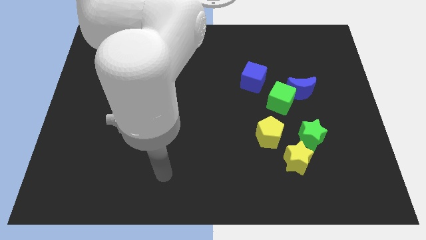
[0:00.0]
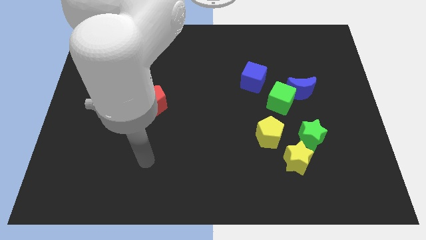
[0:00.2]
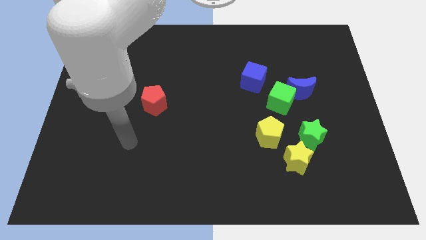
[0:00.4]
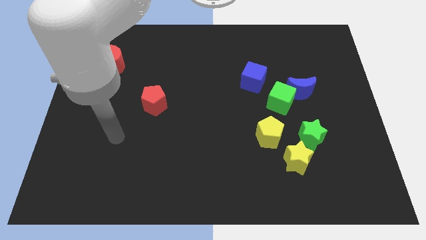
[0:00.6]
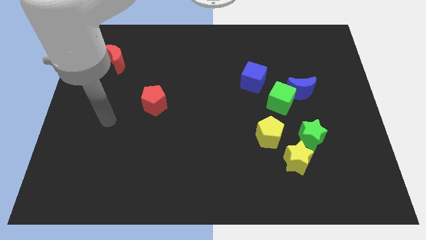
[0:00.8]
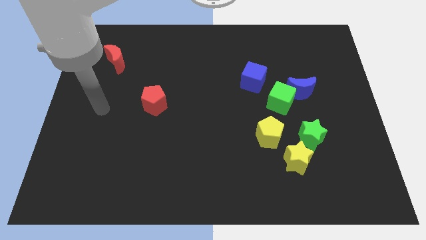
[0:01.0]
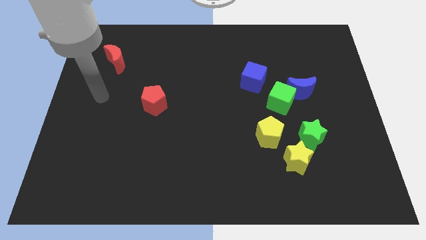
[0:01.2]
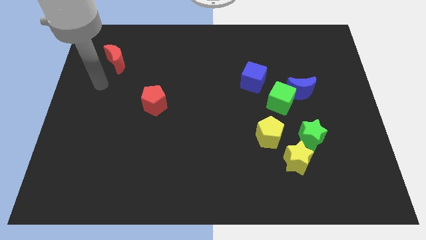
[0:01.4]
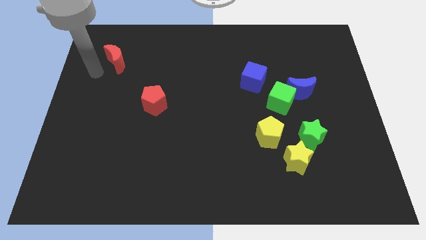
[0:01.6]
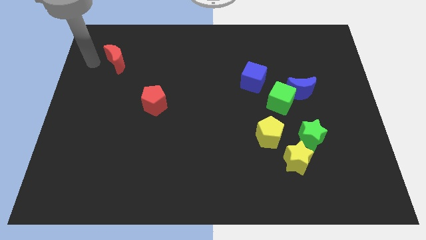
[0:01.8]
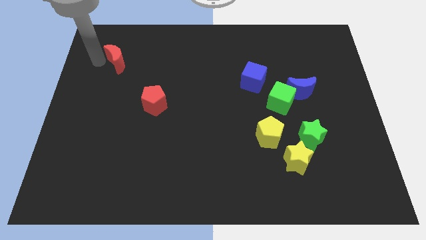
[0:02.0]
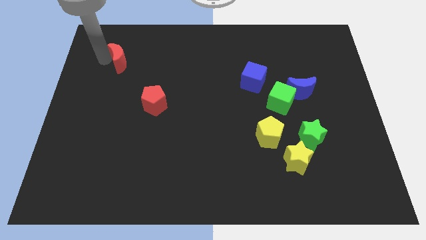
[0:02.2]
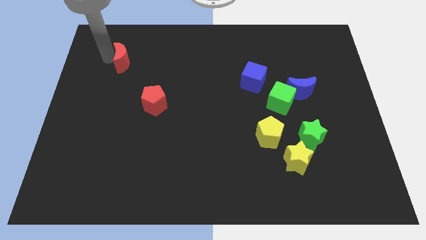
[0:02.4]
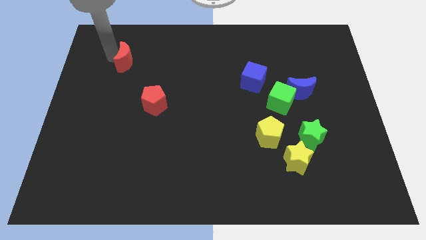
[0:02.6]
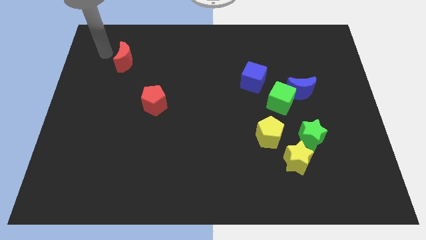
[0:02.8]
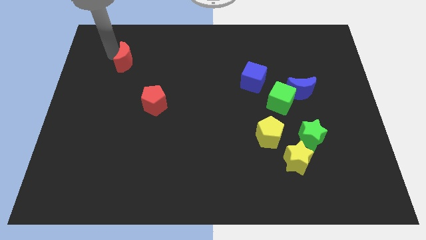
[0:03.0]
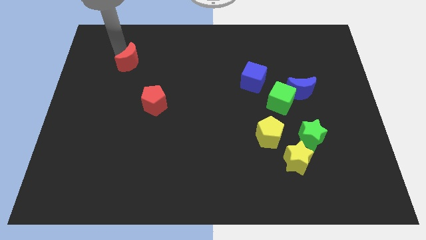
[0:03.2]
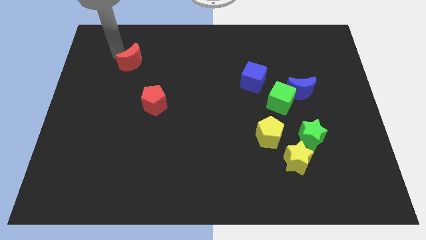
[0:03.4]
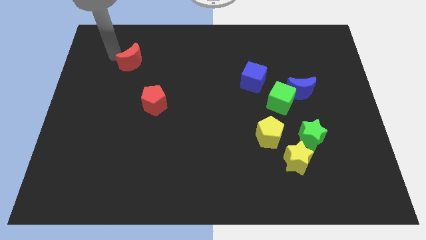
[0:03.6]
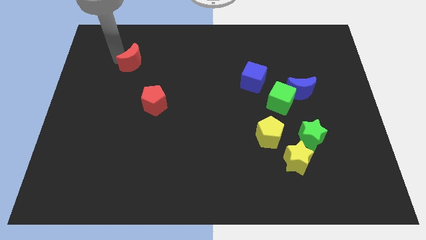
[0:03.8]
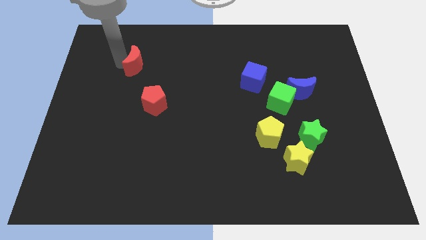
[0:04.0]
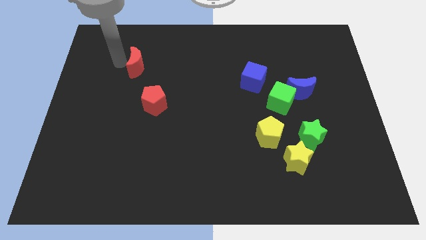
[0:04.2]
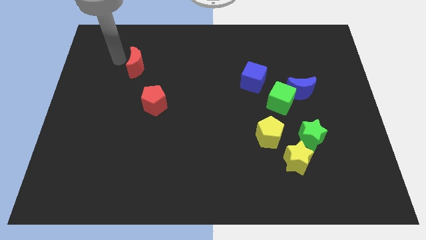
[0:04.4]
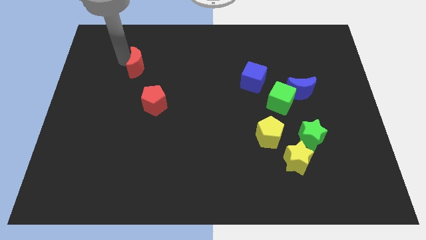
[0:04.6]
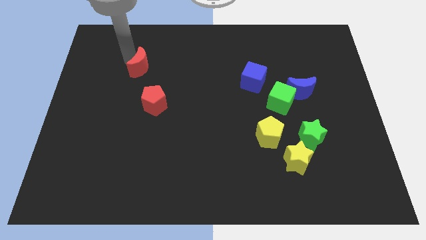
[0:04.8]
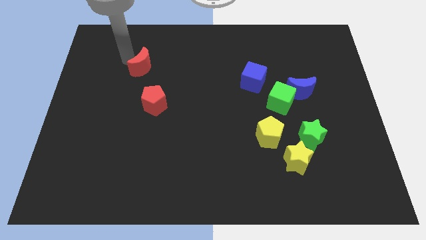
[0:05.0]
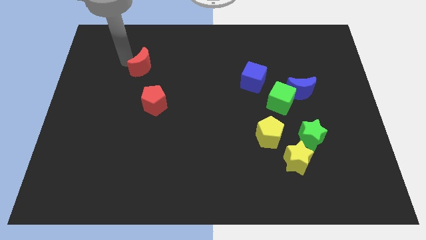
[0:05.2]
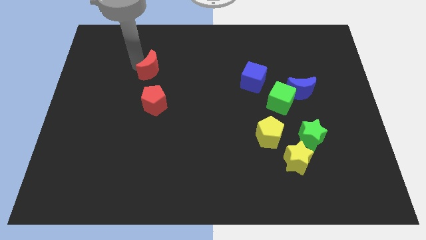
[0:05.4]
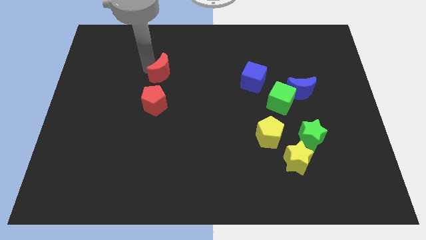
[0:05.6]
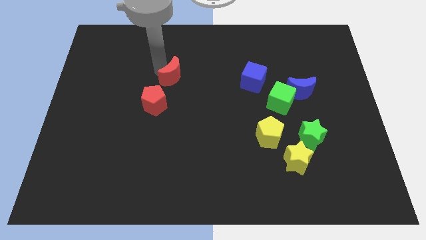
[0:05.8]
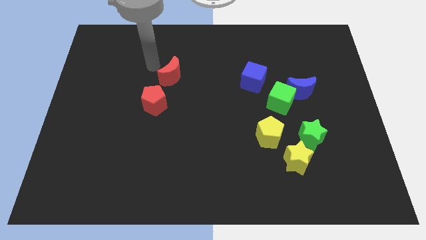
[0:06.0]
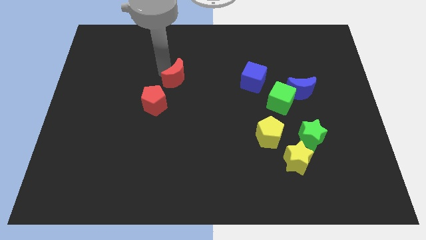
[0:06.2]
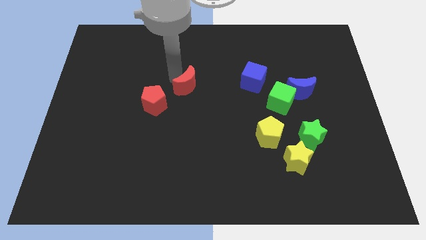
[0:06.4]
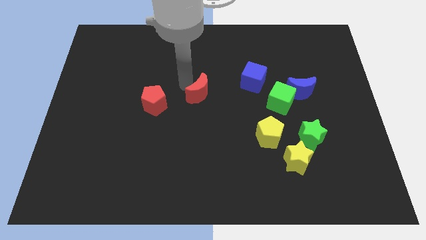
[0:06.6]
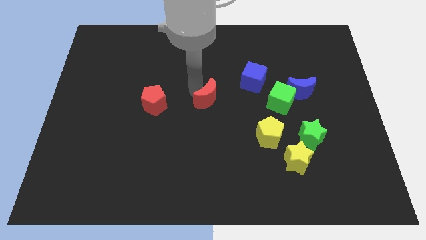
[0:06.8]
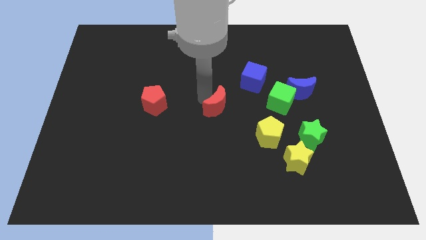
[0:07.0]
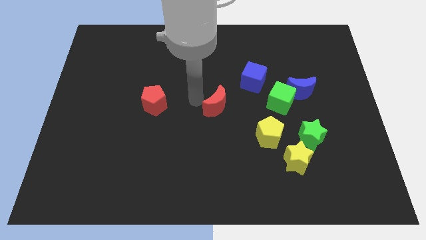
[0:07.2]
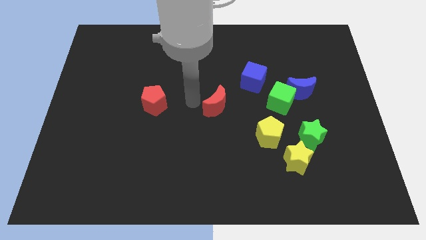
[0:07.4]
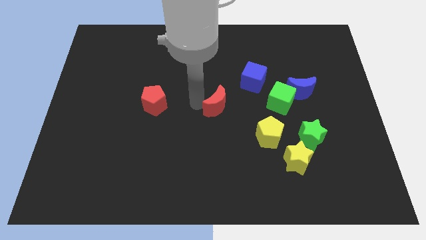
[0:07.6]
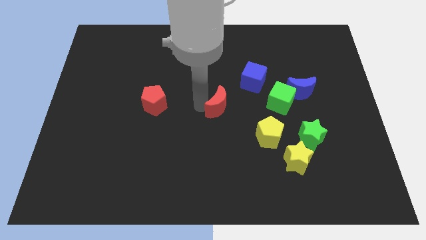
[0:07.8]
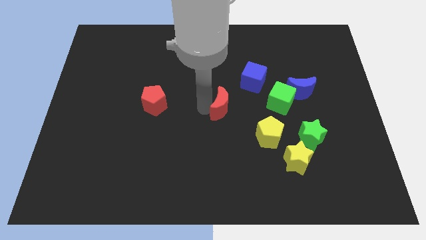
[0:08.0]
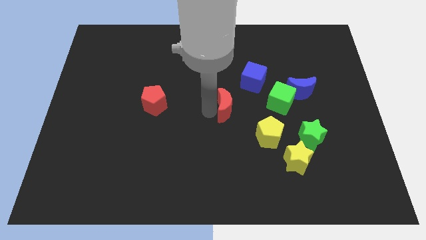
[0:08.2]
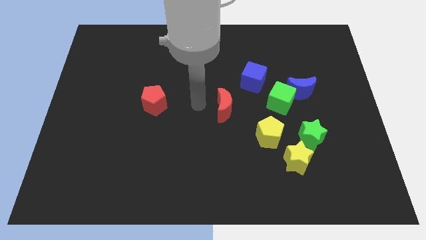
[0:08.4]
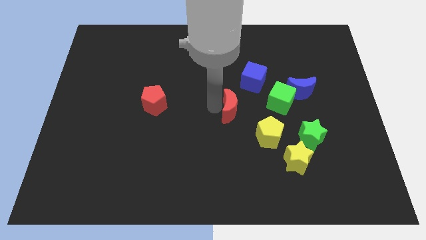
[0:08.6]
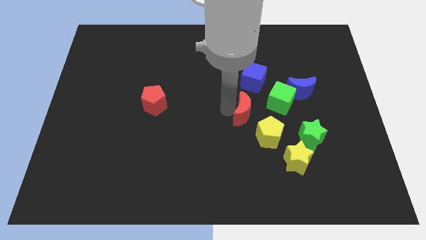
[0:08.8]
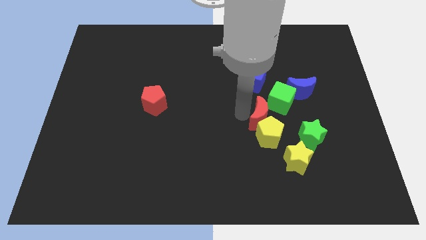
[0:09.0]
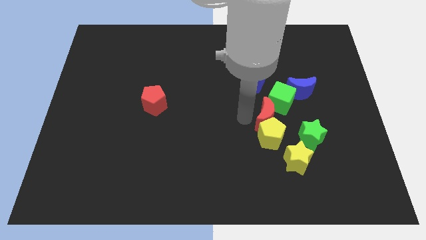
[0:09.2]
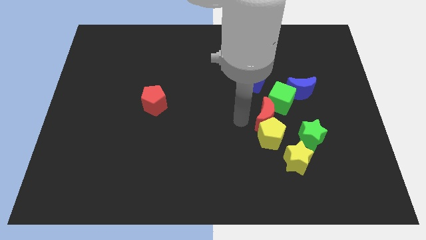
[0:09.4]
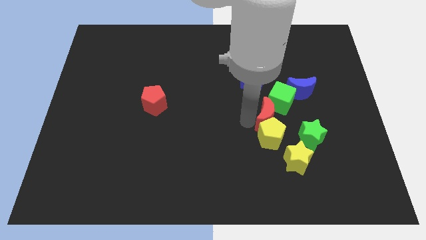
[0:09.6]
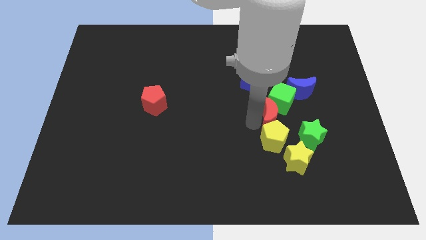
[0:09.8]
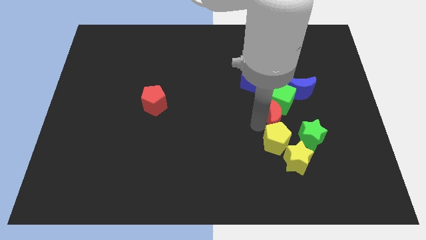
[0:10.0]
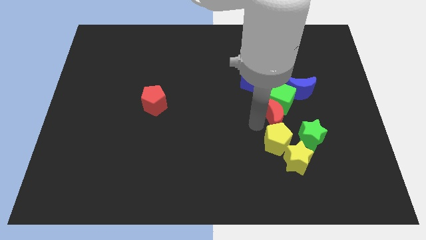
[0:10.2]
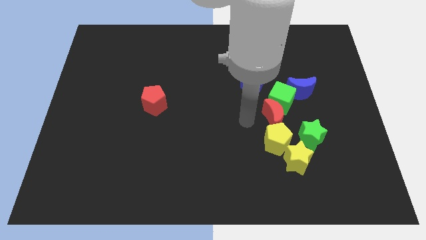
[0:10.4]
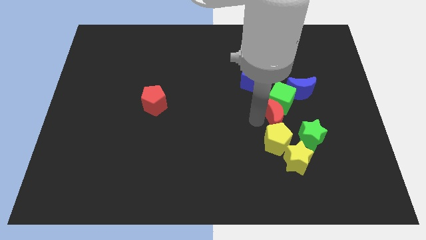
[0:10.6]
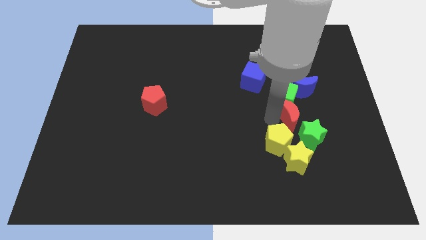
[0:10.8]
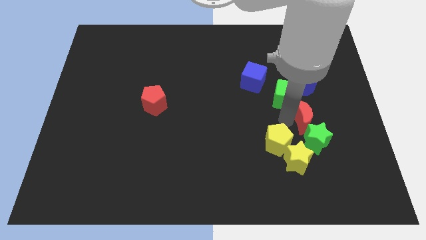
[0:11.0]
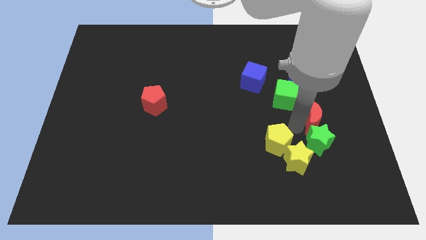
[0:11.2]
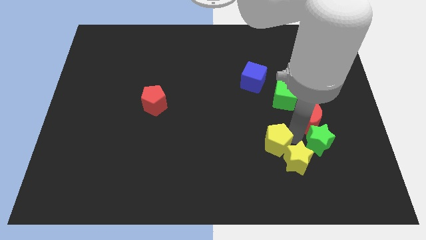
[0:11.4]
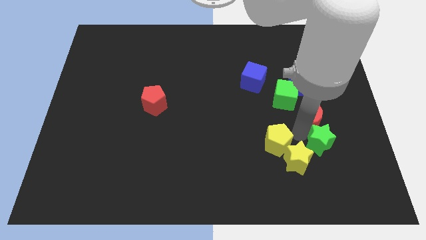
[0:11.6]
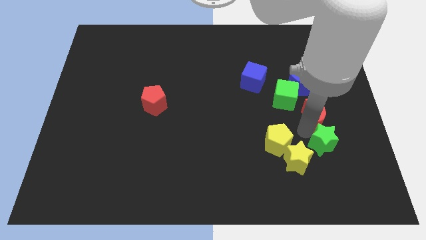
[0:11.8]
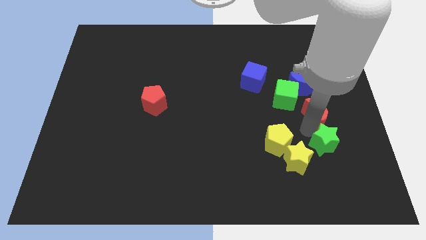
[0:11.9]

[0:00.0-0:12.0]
put the red moon to the bottom right side of the blue moon

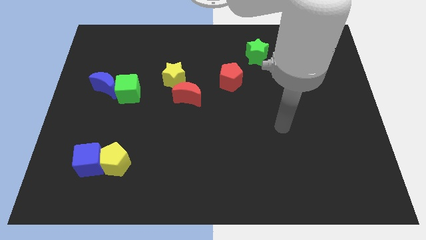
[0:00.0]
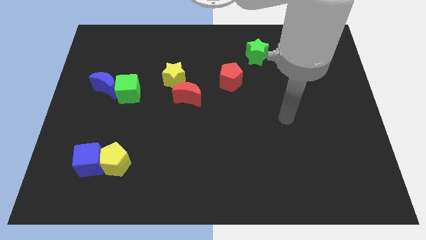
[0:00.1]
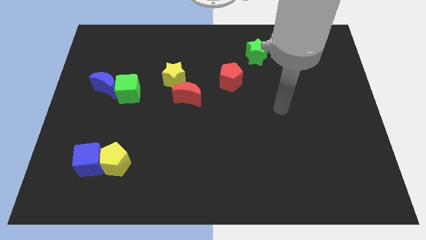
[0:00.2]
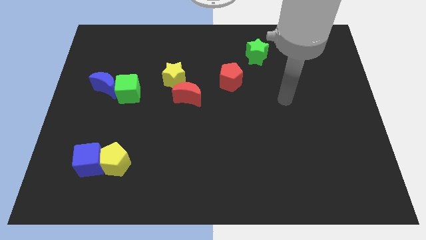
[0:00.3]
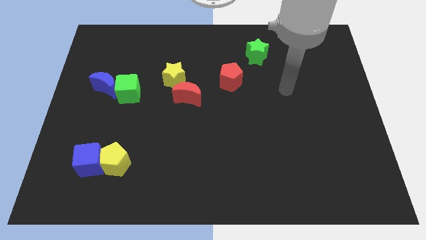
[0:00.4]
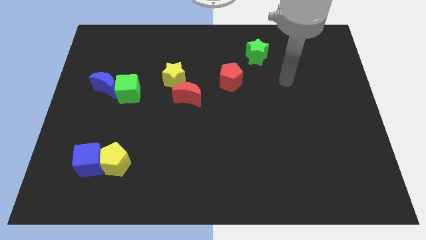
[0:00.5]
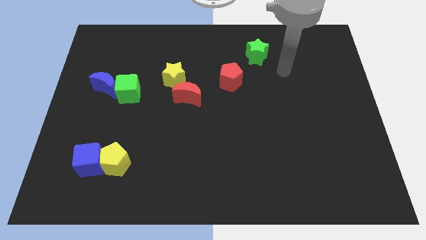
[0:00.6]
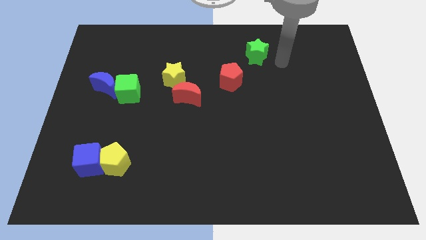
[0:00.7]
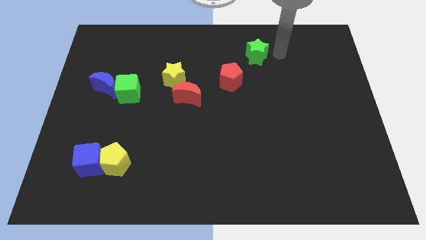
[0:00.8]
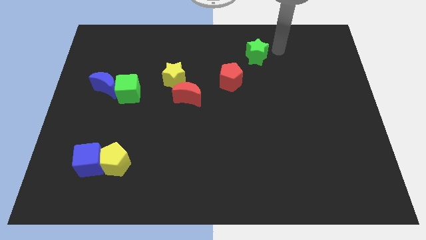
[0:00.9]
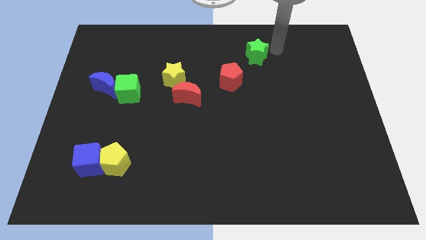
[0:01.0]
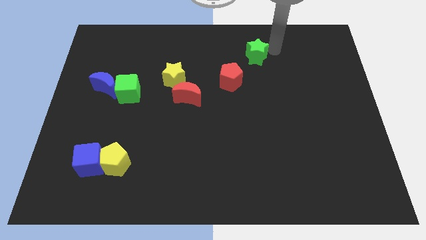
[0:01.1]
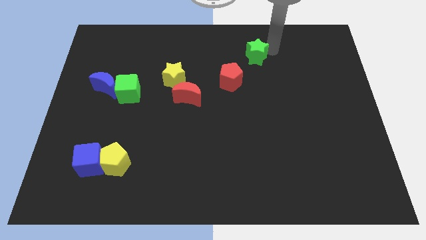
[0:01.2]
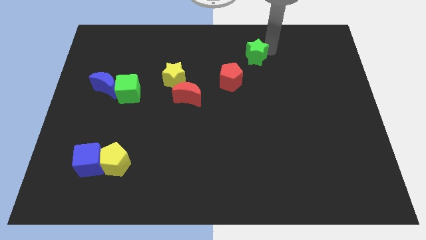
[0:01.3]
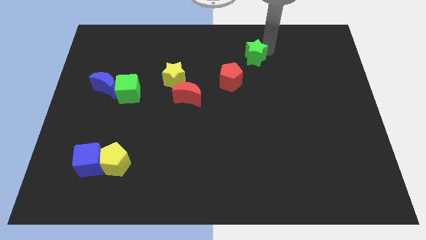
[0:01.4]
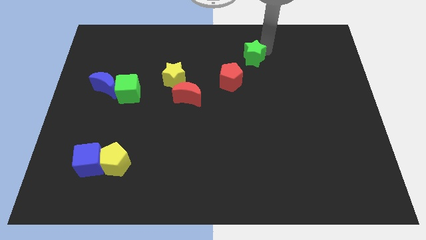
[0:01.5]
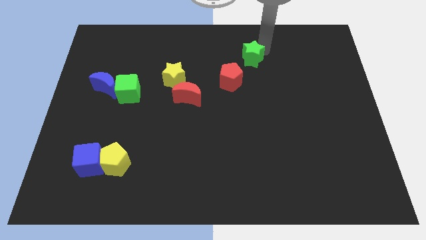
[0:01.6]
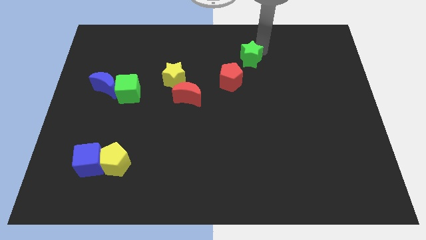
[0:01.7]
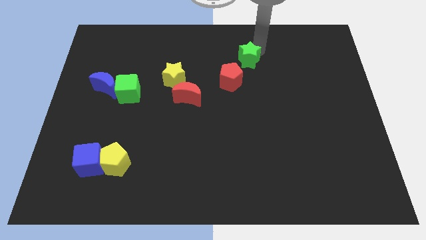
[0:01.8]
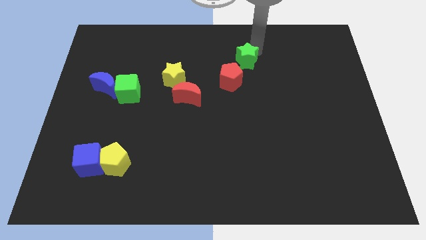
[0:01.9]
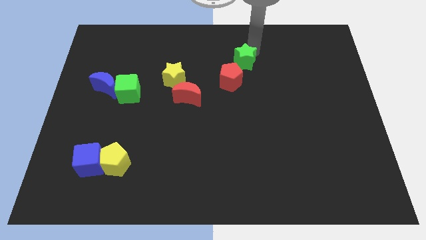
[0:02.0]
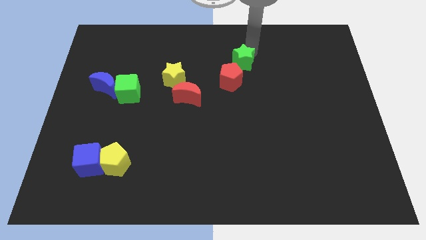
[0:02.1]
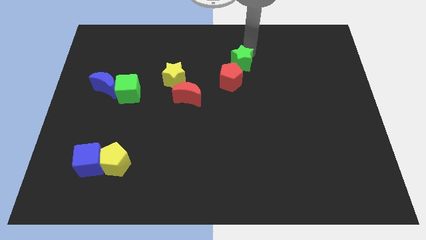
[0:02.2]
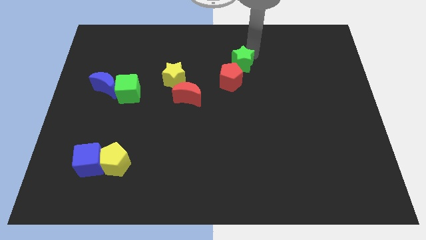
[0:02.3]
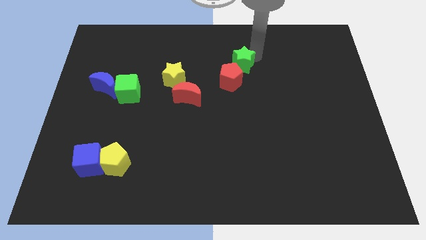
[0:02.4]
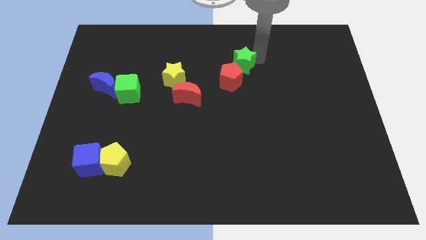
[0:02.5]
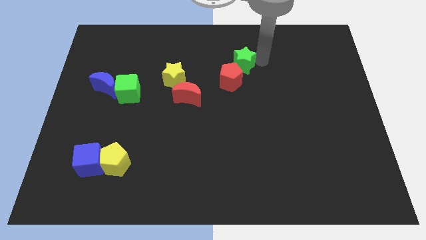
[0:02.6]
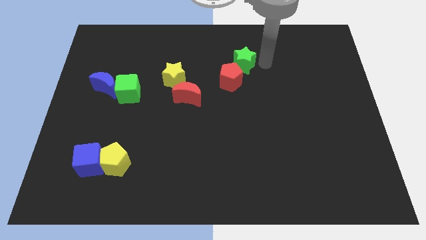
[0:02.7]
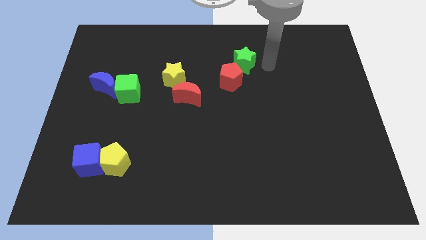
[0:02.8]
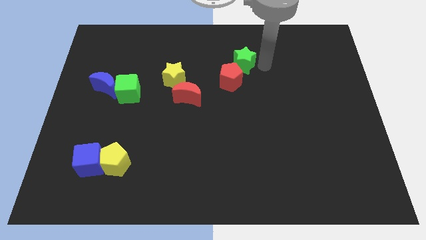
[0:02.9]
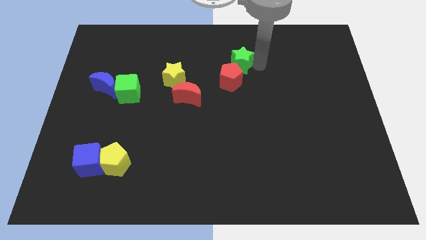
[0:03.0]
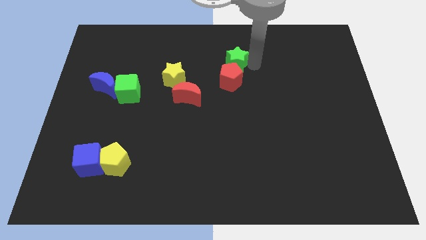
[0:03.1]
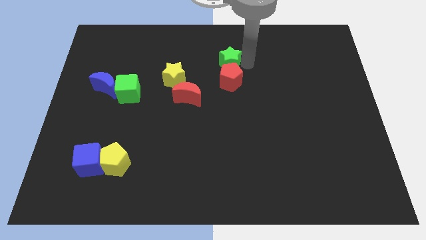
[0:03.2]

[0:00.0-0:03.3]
move the green star to the top left side of the red pentagon
